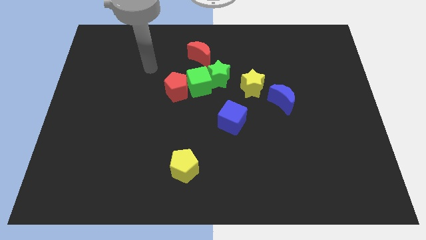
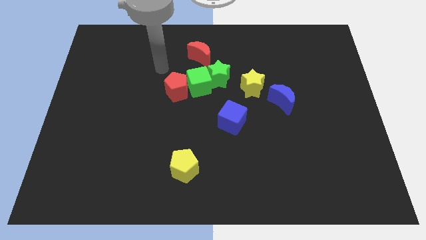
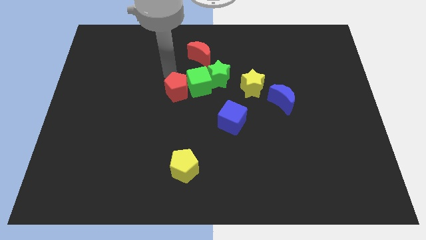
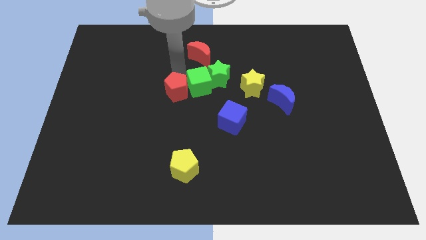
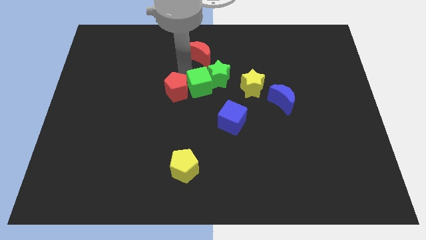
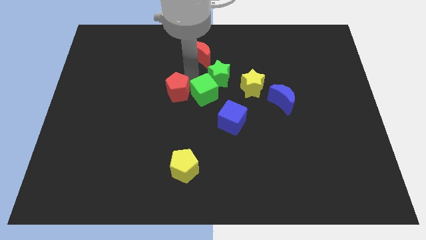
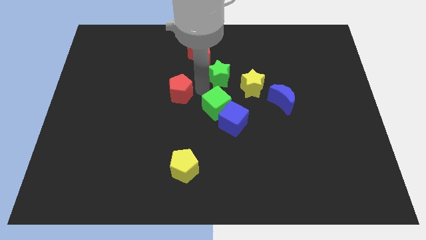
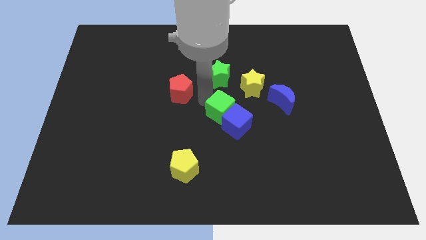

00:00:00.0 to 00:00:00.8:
pull the red pentagon apart from the green cube

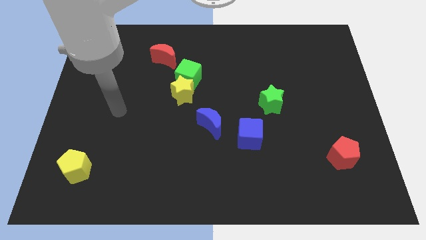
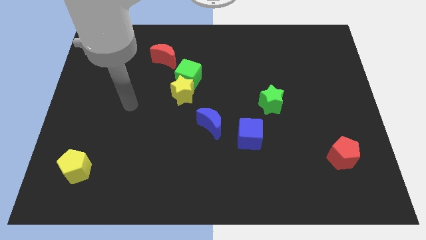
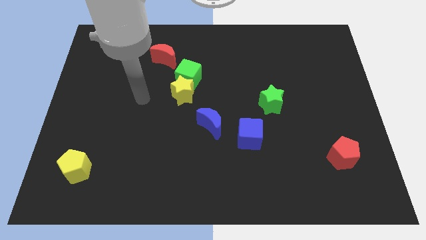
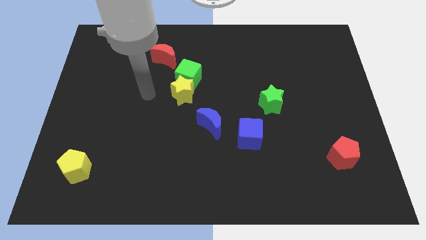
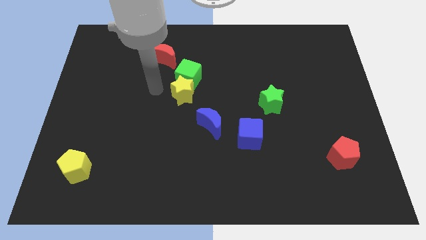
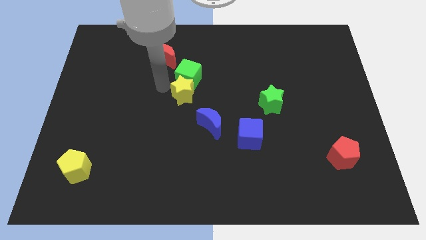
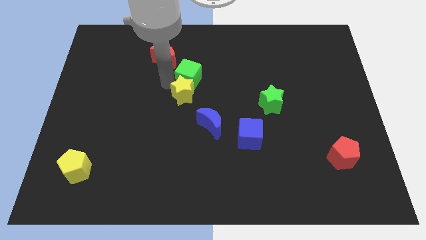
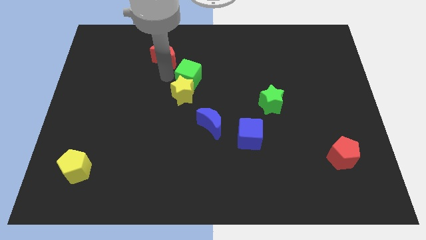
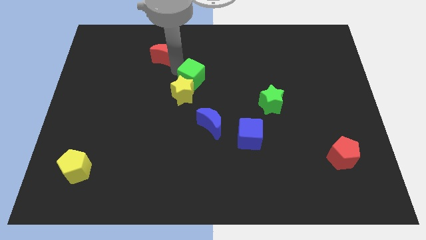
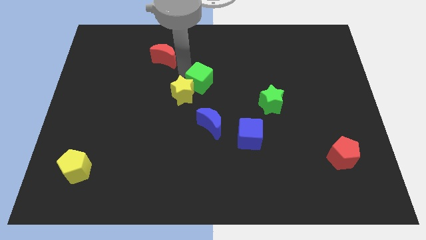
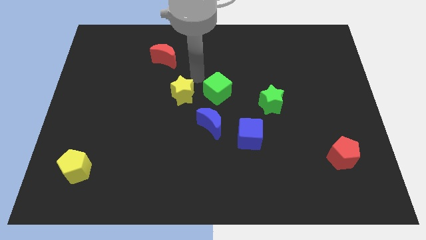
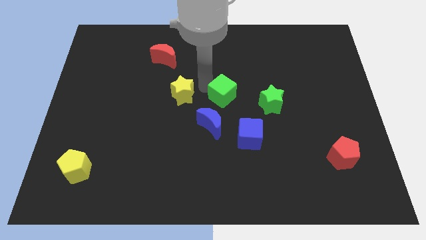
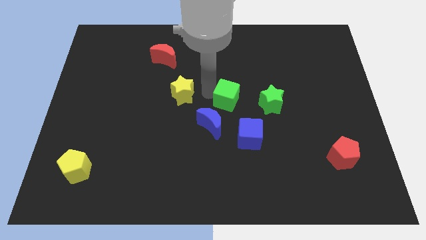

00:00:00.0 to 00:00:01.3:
move the yellow star away from the green cube

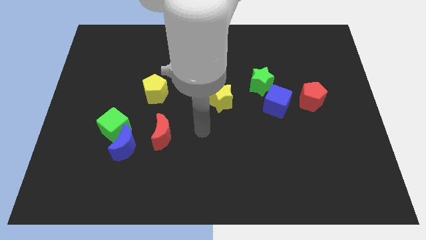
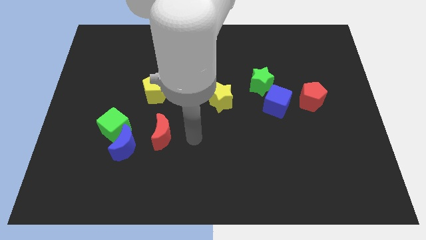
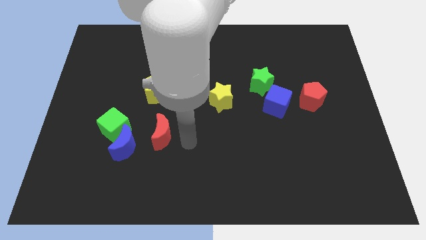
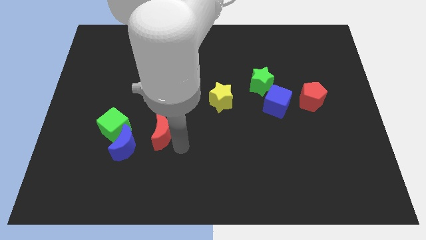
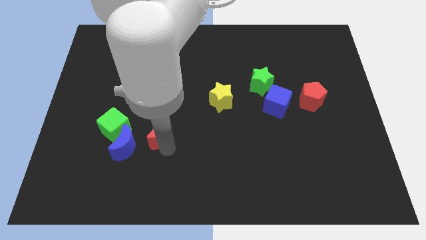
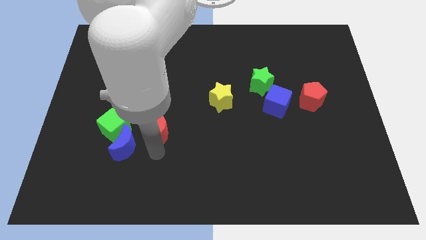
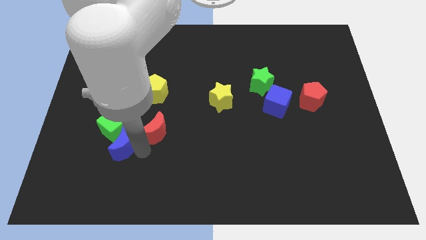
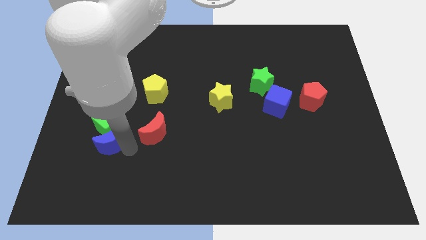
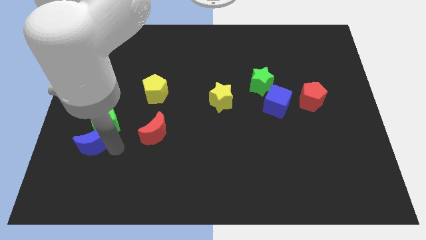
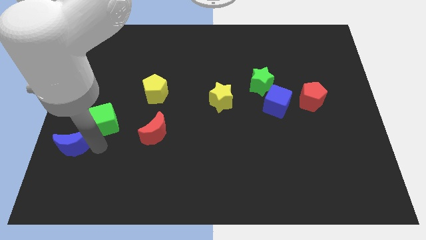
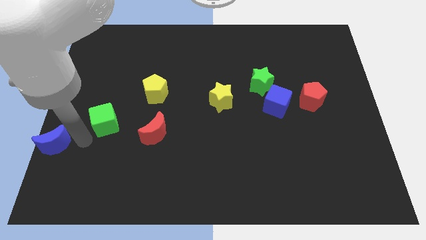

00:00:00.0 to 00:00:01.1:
pull the green cube apart from the blue moon

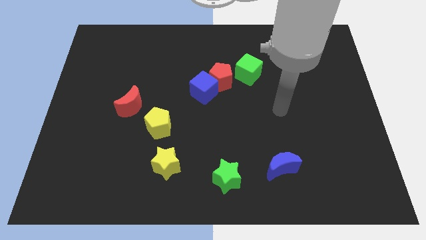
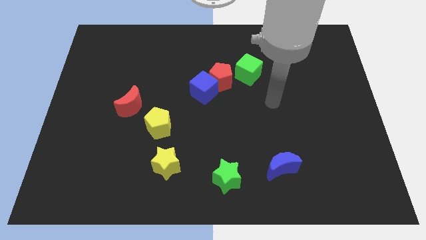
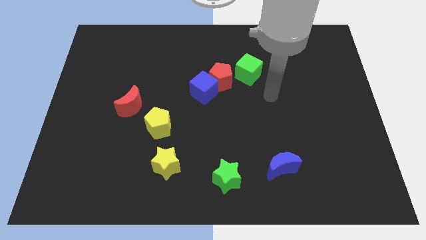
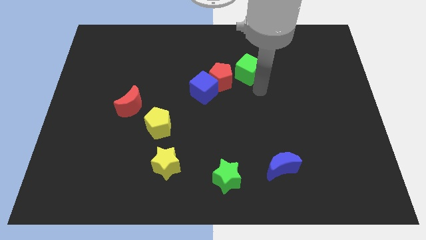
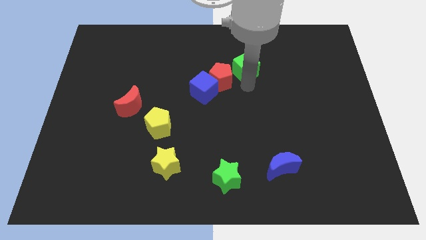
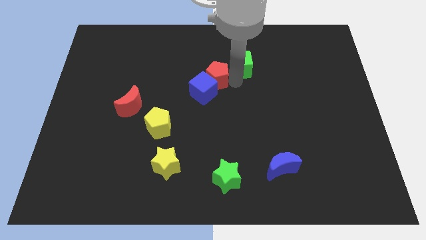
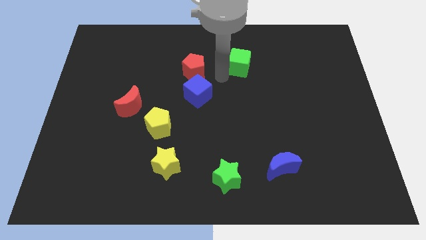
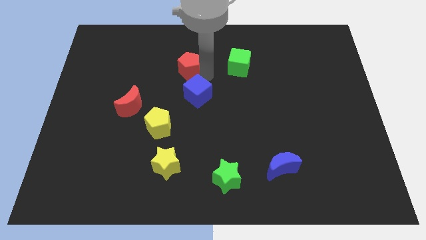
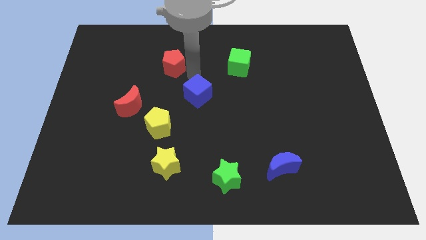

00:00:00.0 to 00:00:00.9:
separate the blue cube from the red pentagon

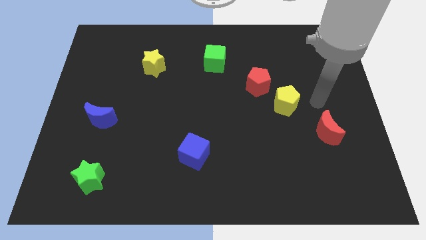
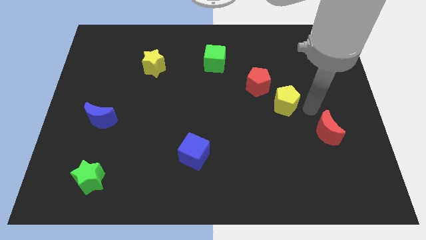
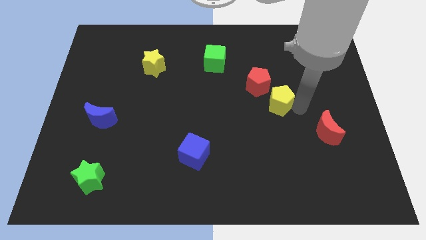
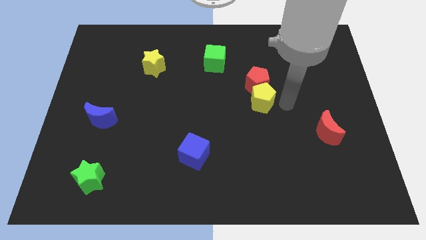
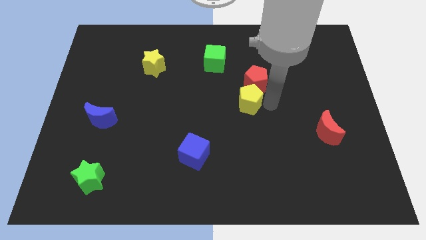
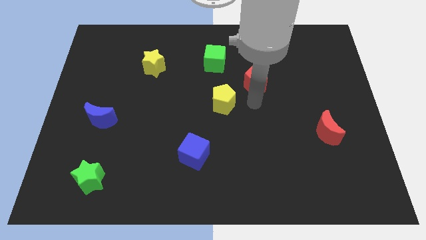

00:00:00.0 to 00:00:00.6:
pull the red pentagon apart from the yellow pentagon

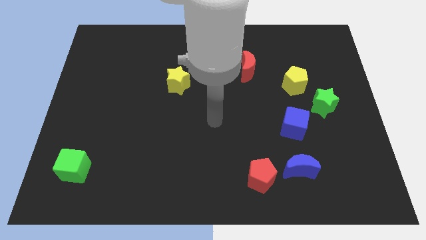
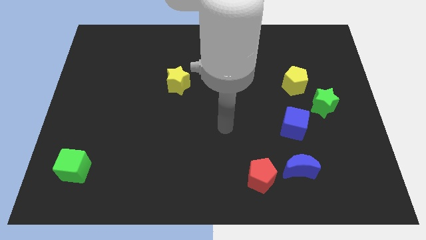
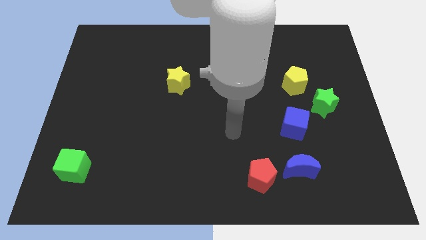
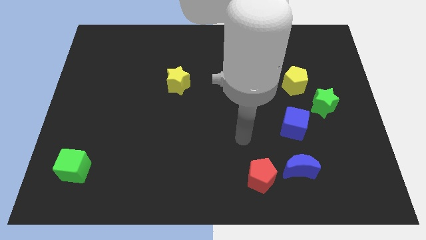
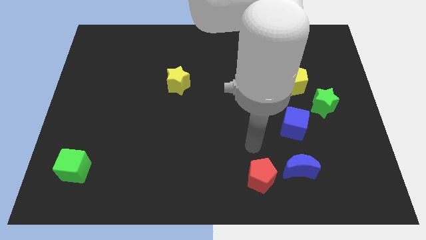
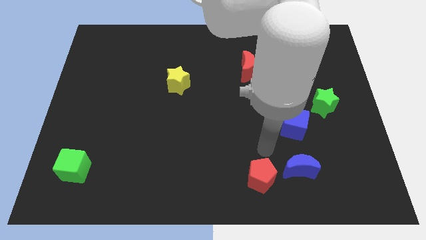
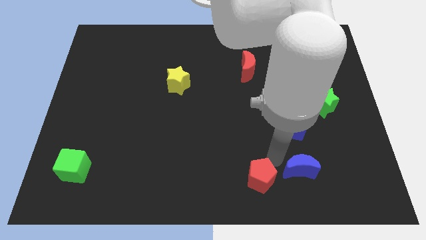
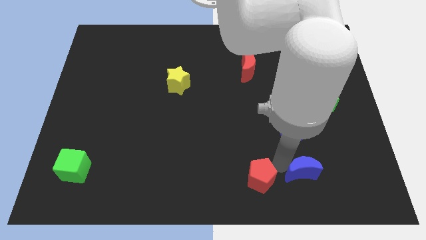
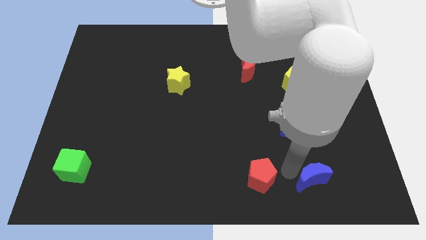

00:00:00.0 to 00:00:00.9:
pull the red pentagon apart from the blue moon

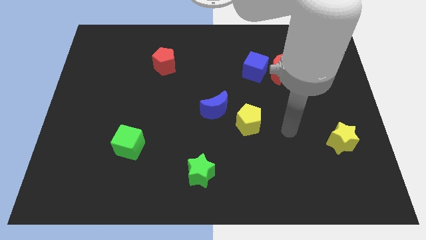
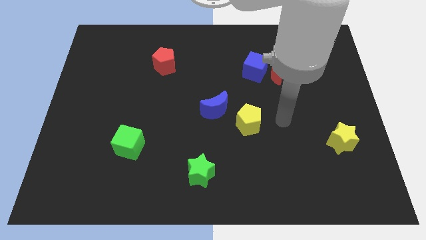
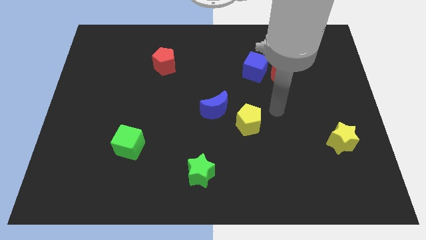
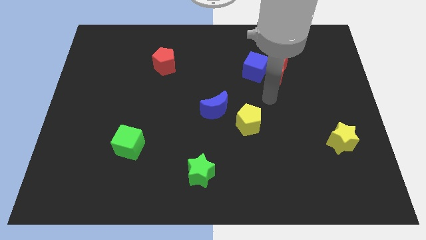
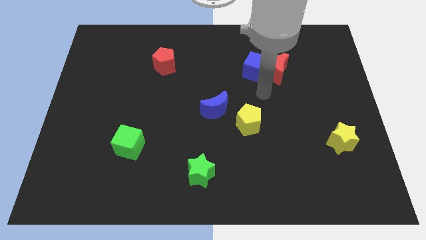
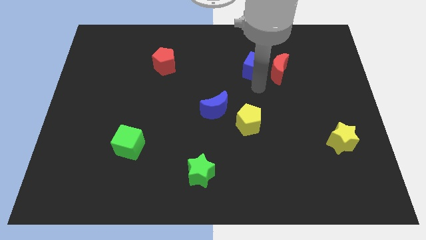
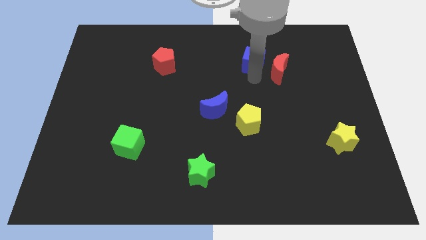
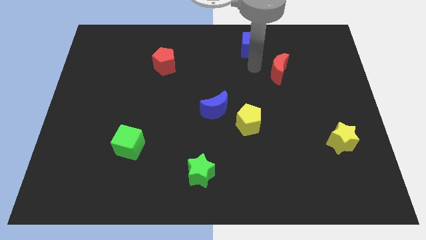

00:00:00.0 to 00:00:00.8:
separate the red moon from the blue cube

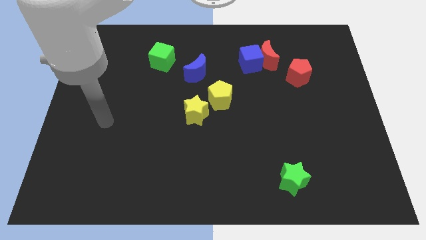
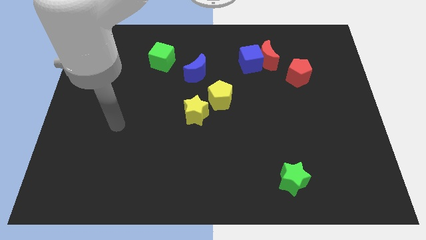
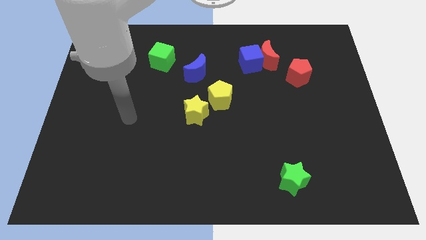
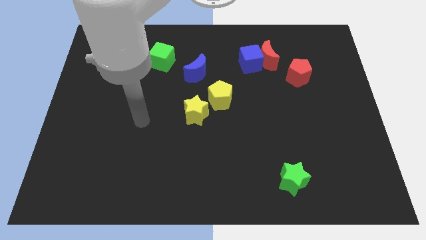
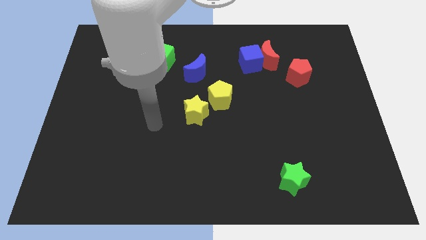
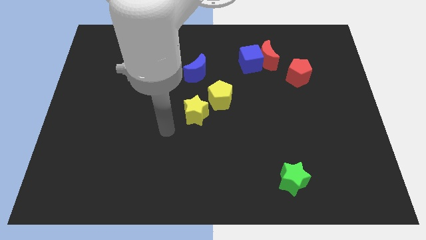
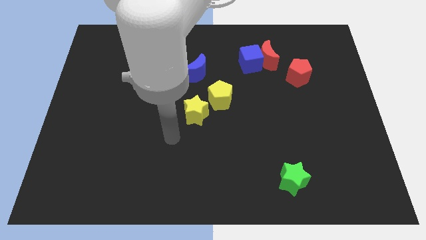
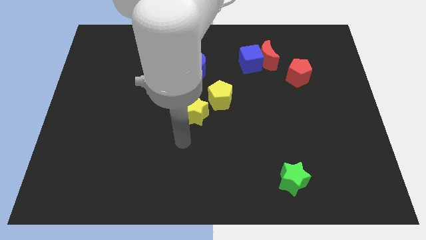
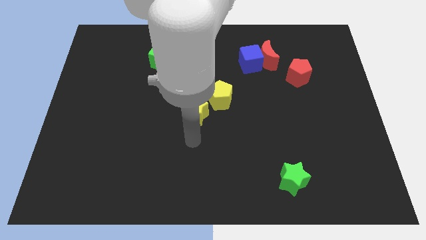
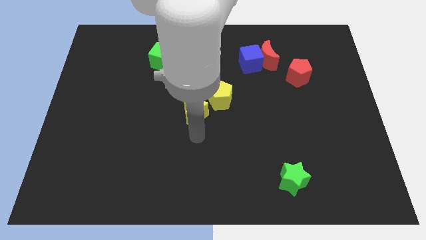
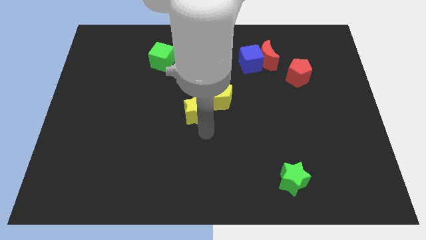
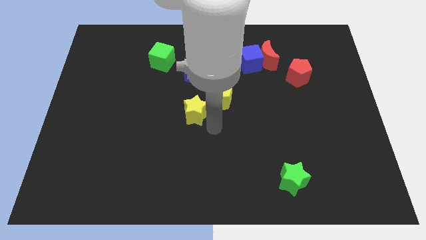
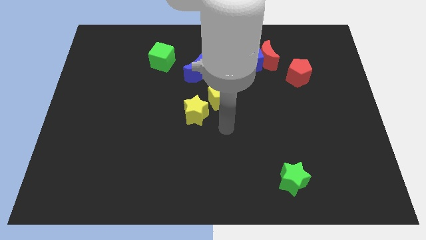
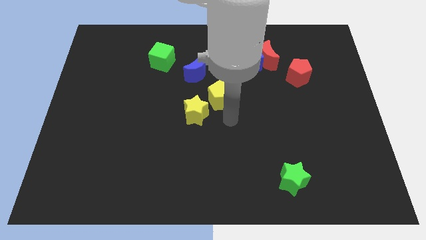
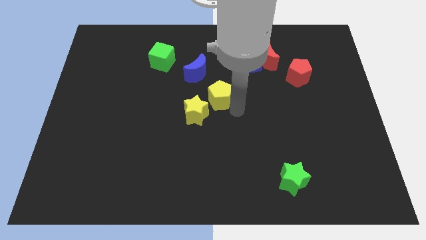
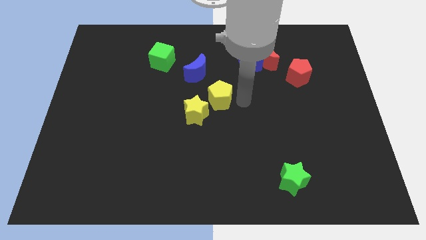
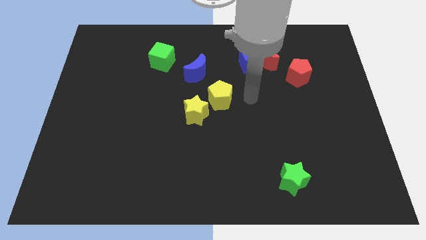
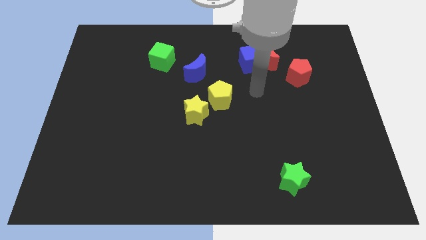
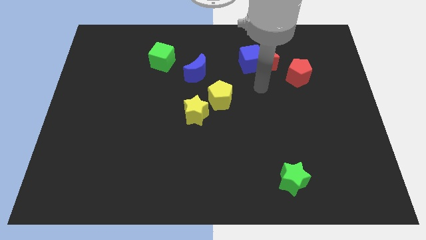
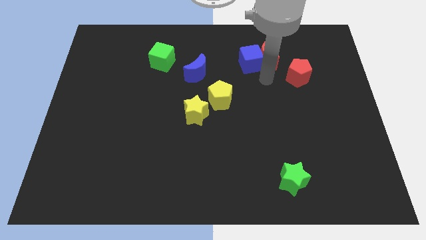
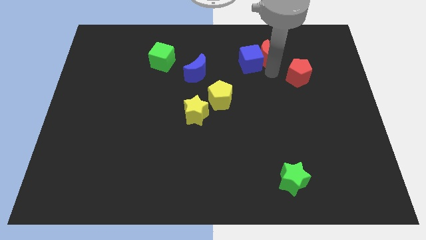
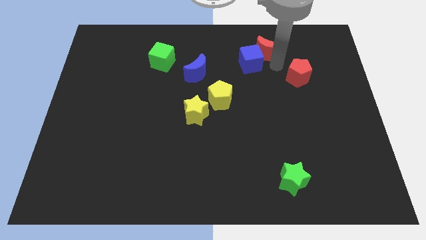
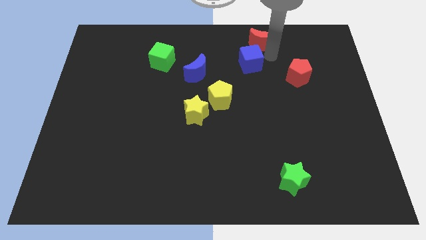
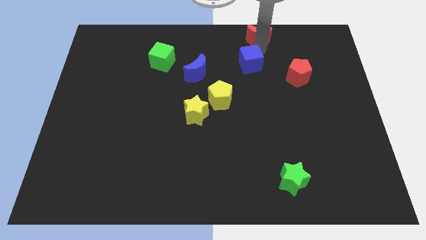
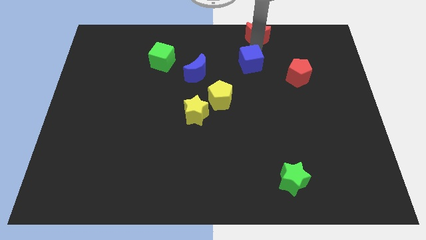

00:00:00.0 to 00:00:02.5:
pull the blue cube apart from the red moon

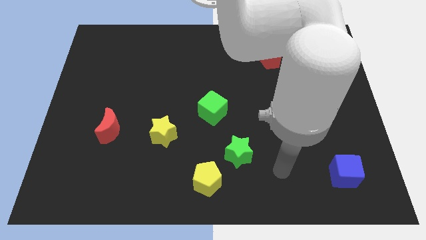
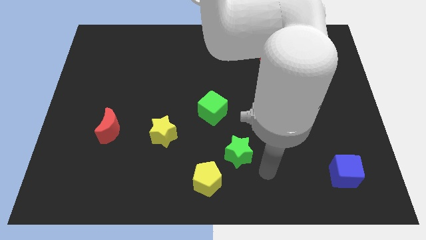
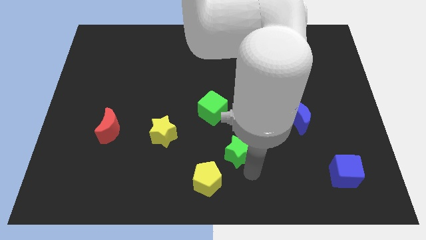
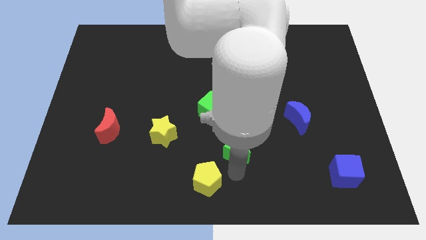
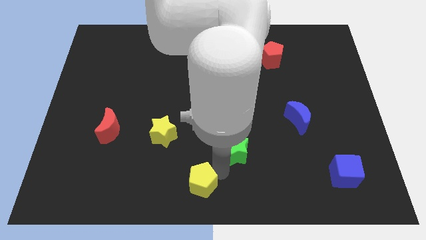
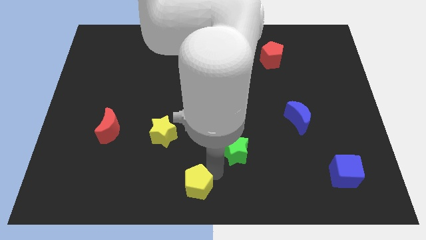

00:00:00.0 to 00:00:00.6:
pull the green star apart from the yellow pentagon
